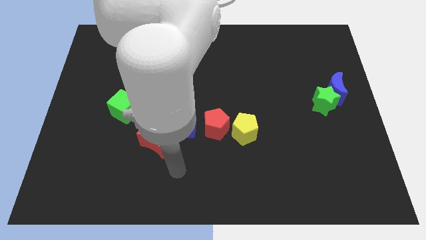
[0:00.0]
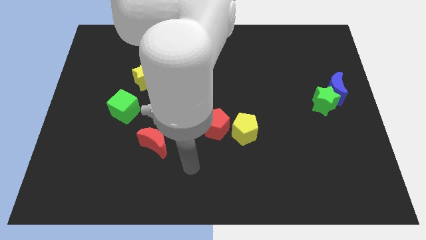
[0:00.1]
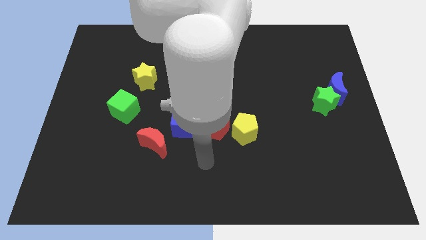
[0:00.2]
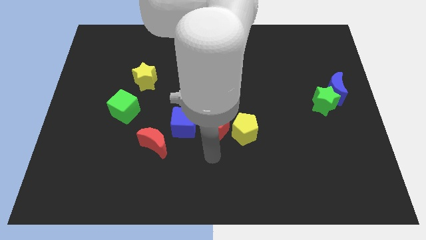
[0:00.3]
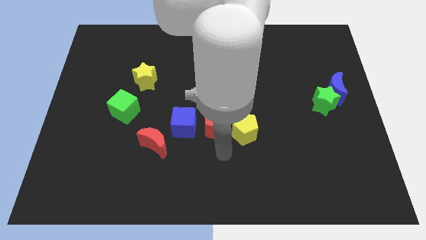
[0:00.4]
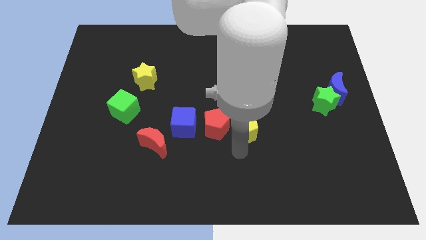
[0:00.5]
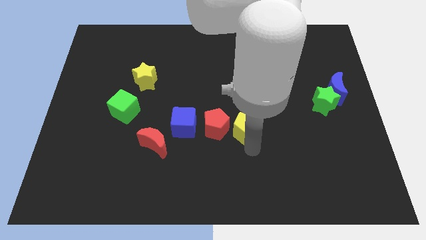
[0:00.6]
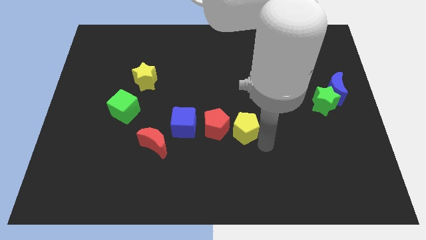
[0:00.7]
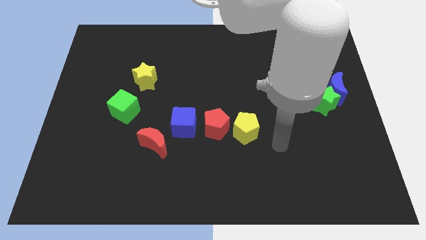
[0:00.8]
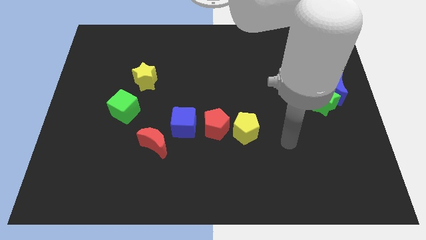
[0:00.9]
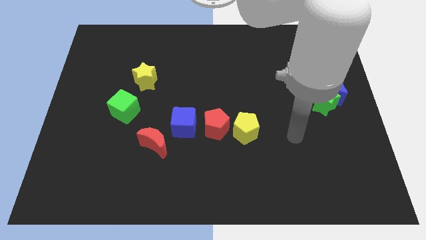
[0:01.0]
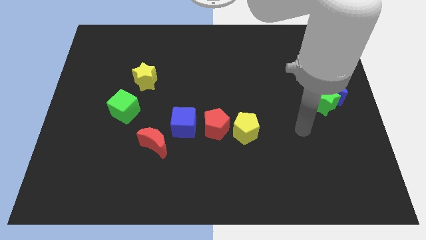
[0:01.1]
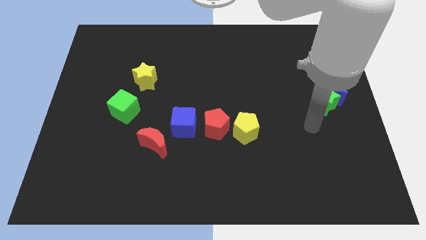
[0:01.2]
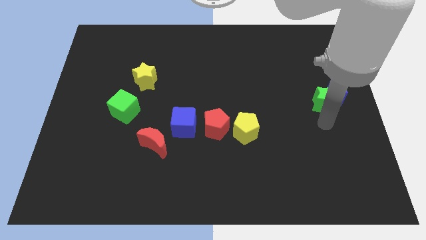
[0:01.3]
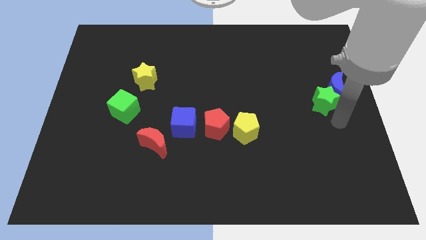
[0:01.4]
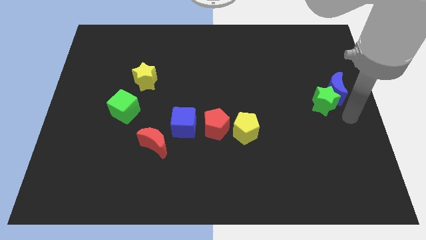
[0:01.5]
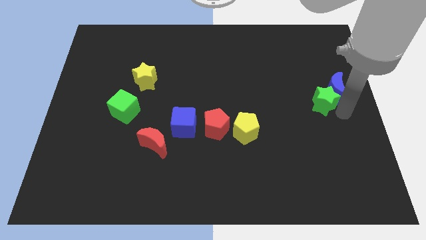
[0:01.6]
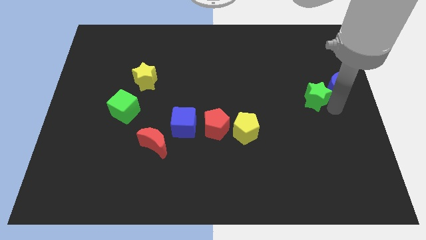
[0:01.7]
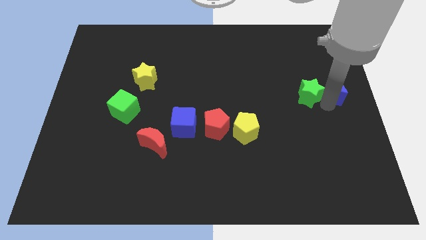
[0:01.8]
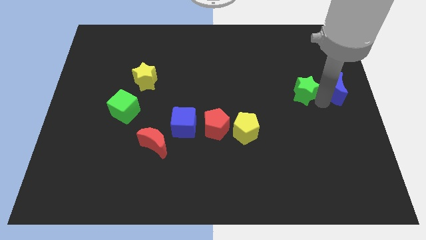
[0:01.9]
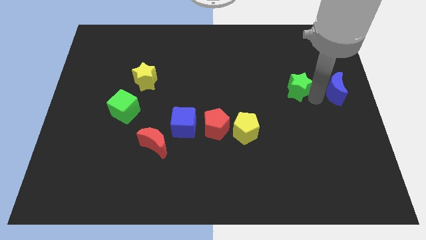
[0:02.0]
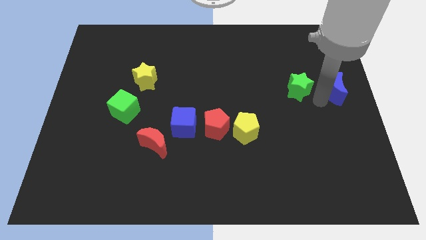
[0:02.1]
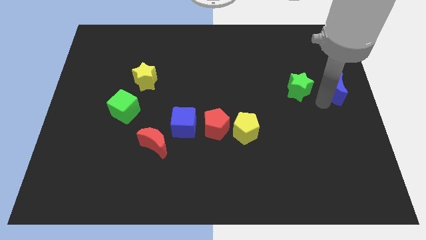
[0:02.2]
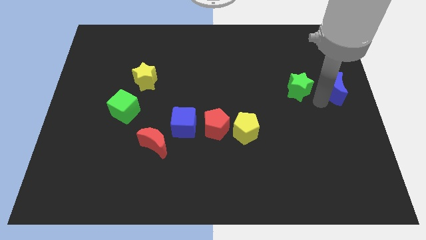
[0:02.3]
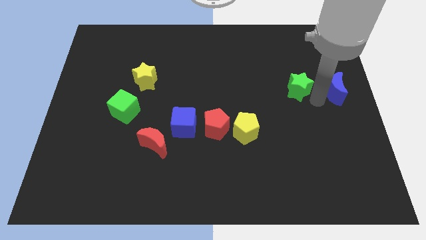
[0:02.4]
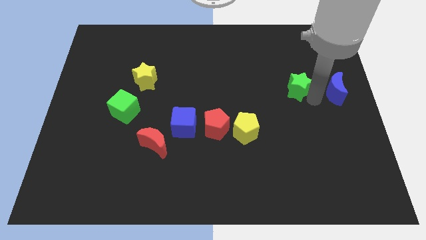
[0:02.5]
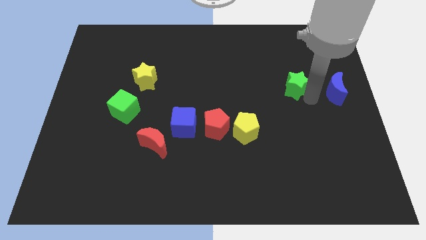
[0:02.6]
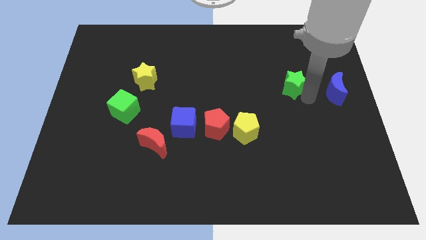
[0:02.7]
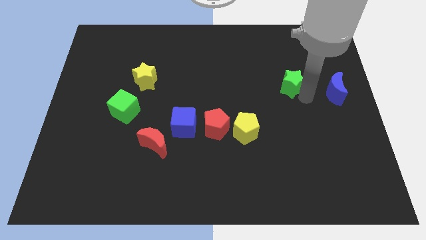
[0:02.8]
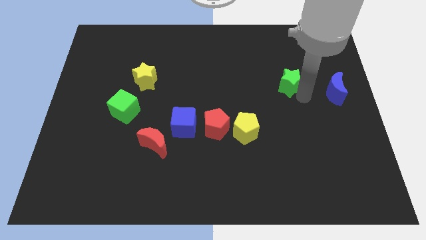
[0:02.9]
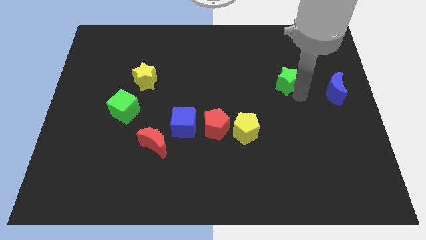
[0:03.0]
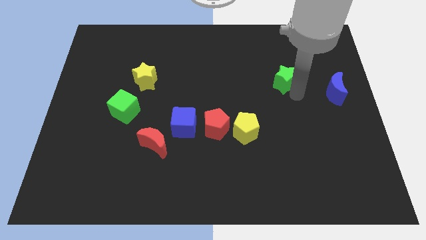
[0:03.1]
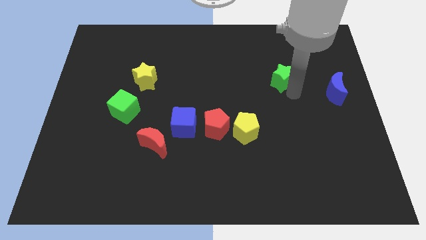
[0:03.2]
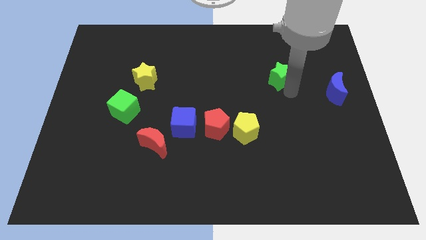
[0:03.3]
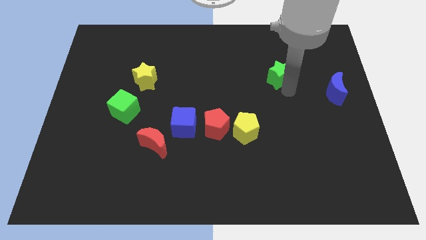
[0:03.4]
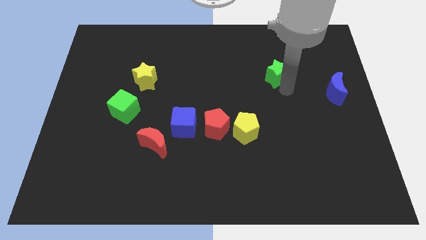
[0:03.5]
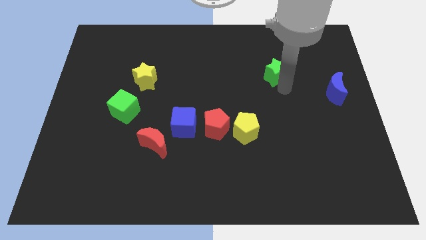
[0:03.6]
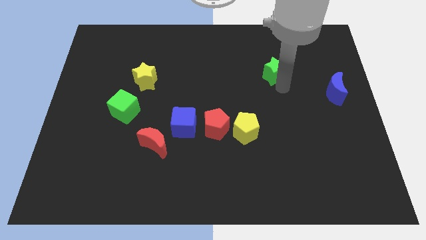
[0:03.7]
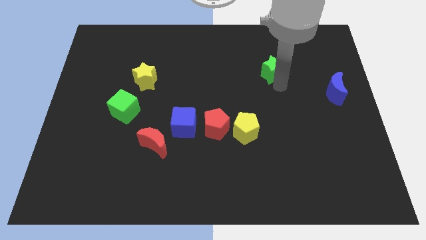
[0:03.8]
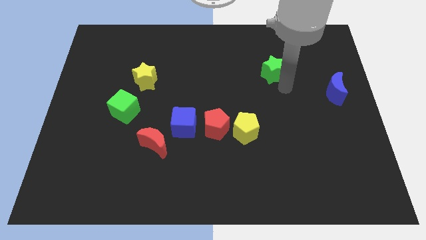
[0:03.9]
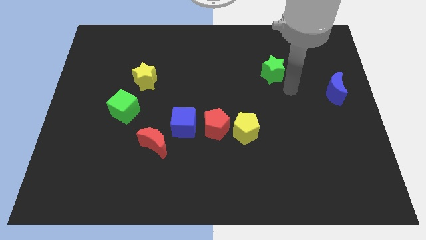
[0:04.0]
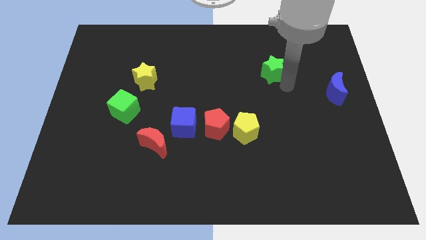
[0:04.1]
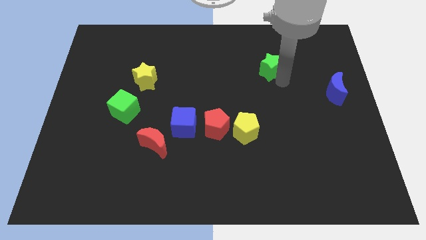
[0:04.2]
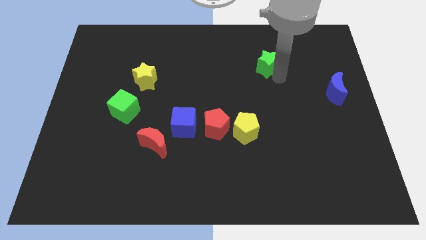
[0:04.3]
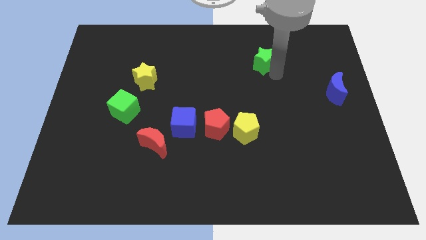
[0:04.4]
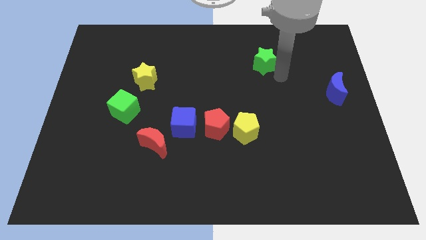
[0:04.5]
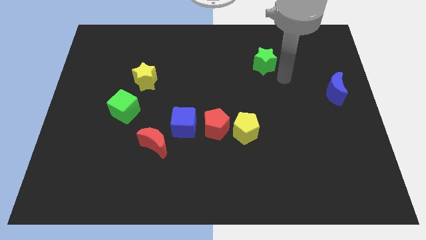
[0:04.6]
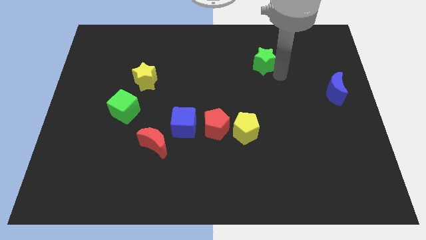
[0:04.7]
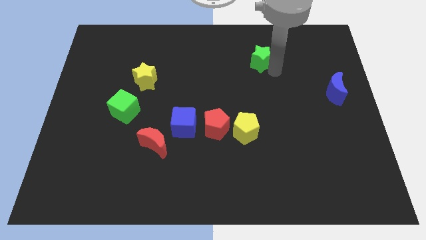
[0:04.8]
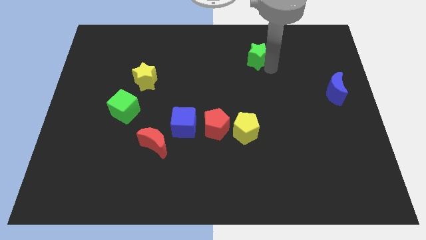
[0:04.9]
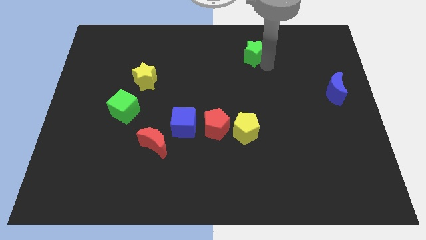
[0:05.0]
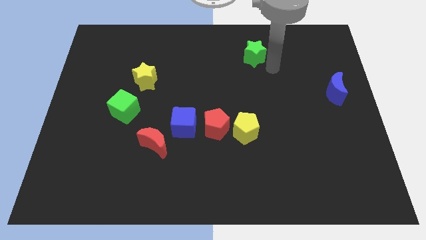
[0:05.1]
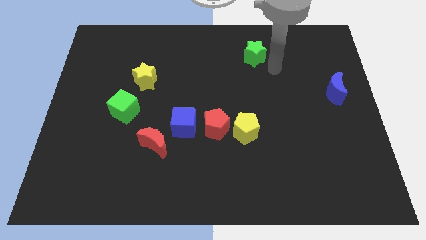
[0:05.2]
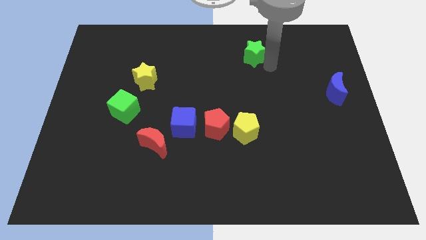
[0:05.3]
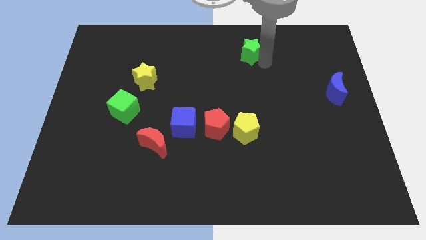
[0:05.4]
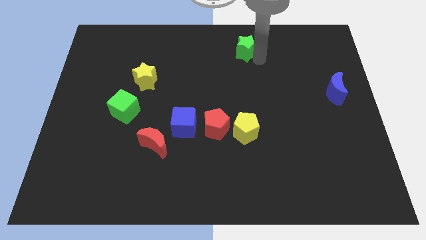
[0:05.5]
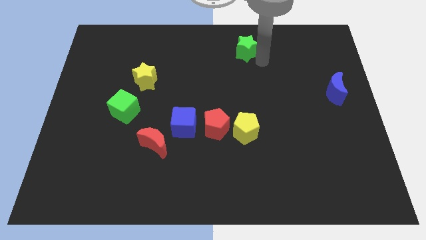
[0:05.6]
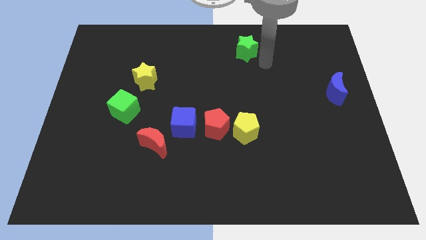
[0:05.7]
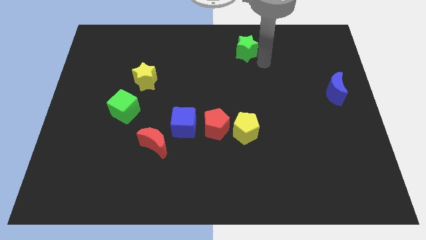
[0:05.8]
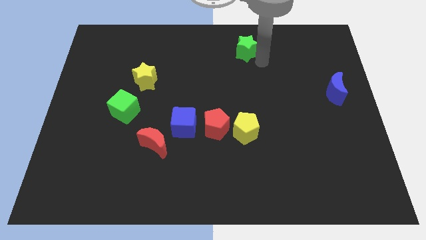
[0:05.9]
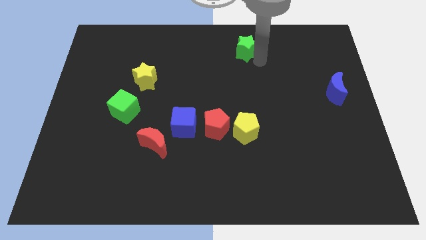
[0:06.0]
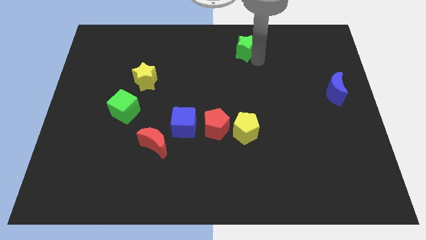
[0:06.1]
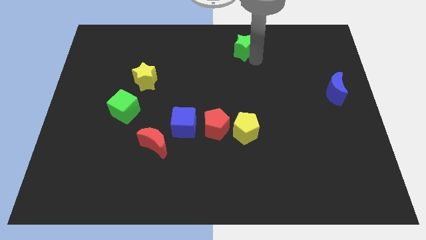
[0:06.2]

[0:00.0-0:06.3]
put the green star to the top side
